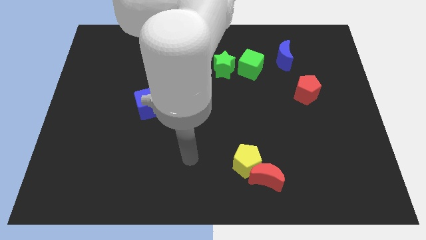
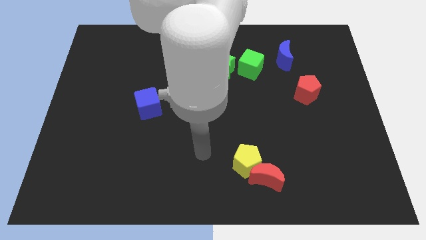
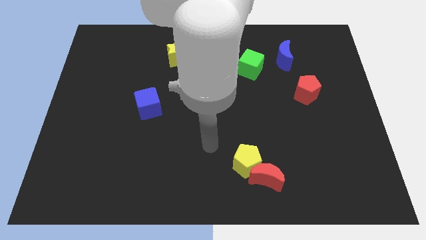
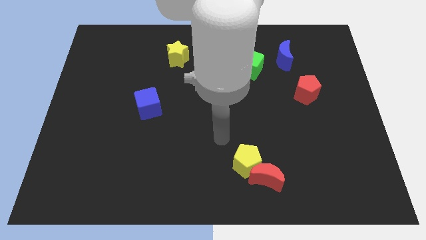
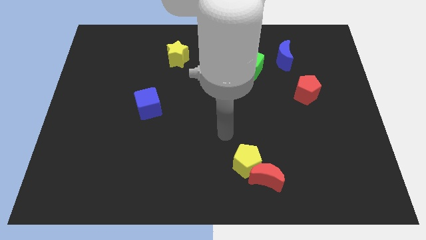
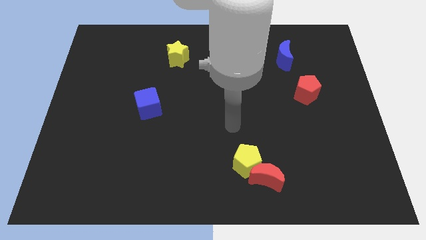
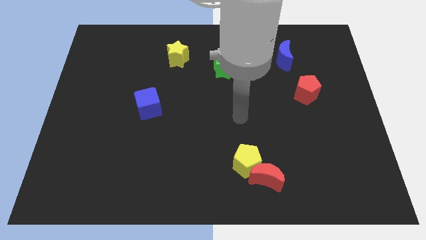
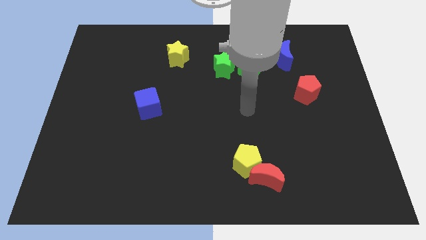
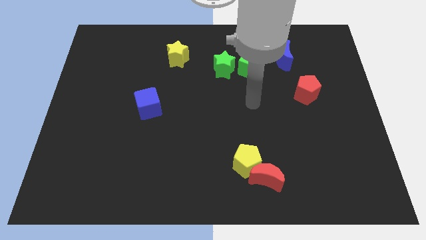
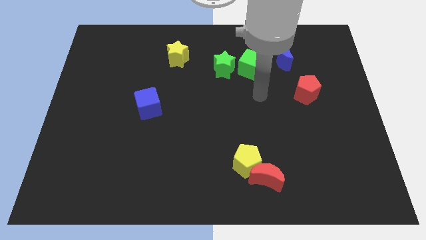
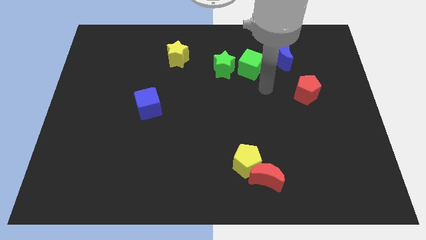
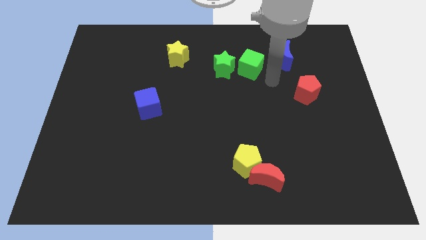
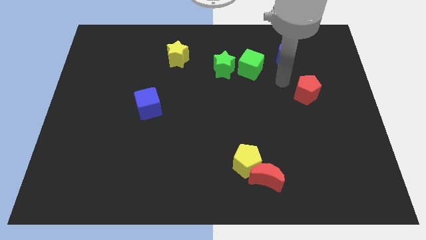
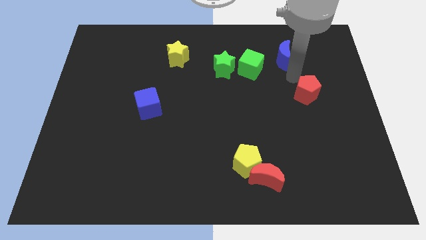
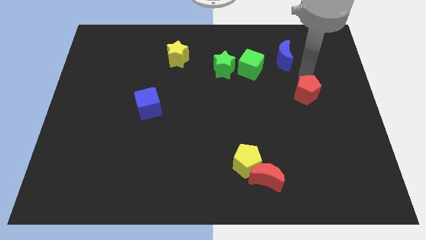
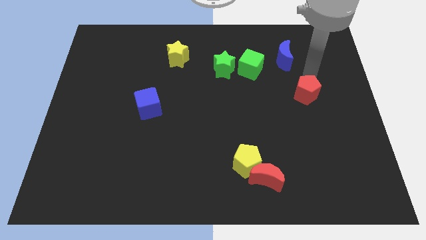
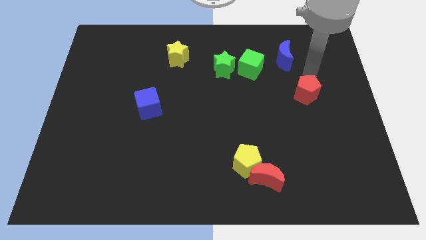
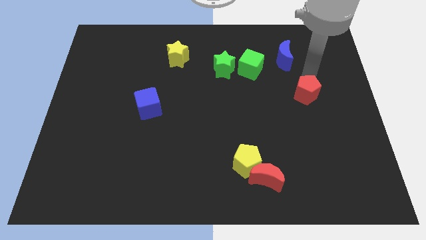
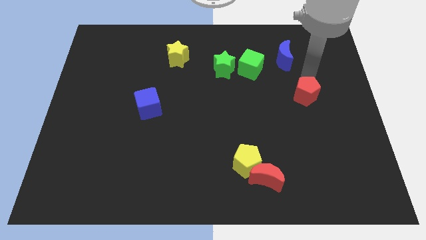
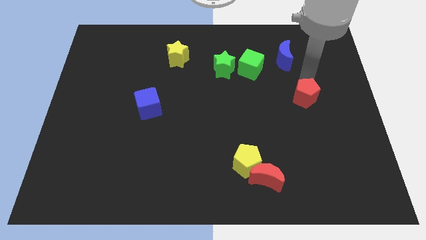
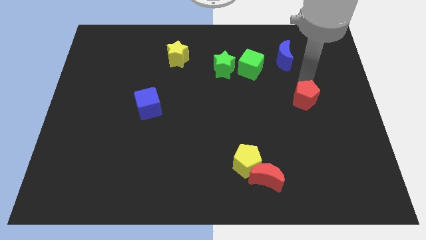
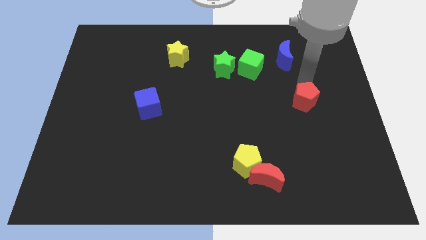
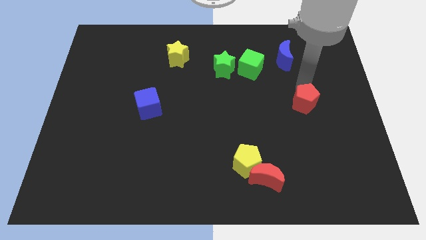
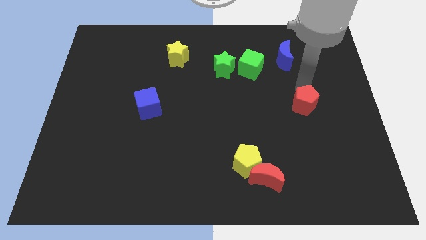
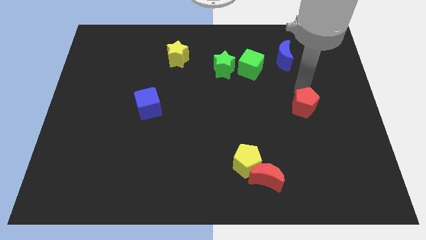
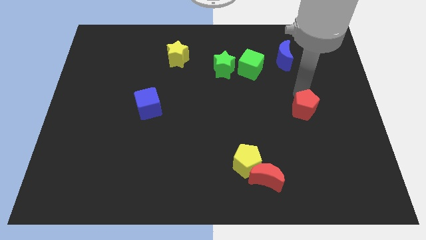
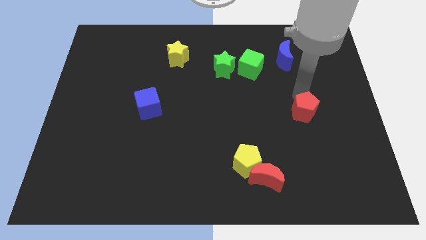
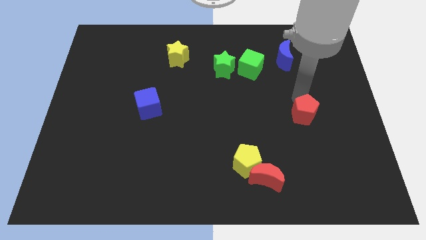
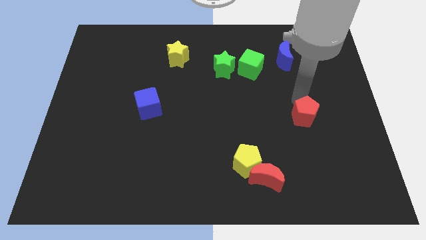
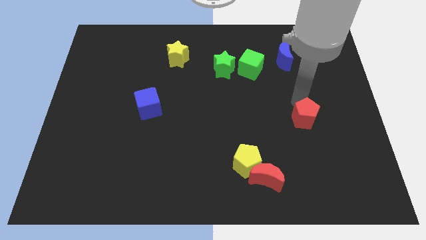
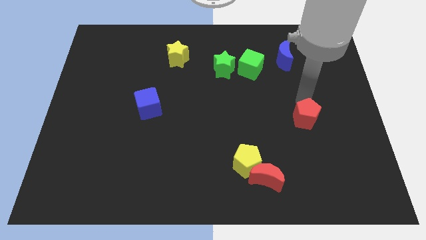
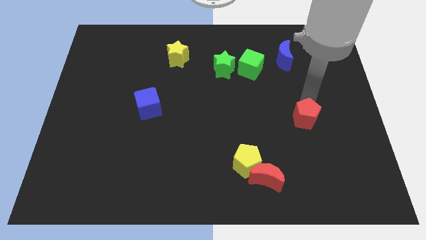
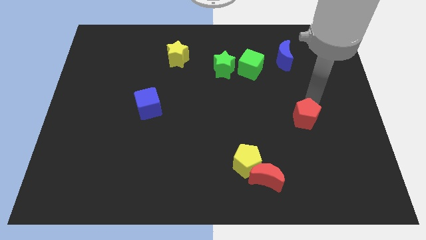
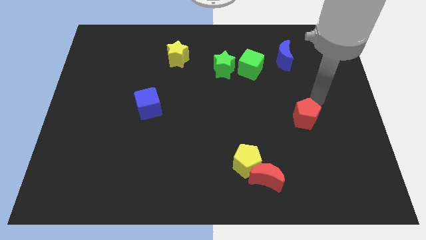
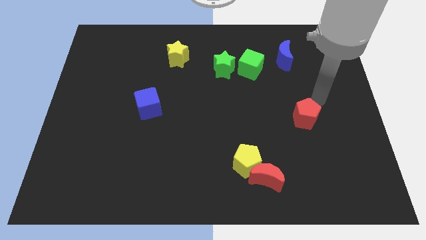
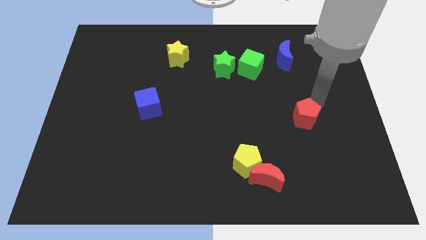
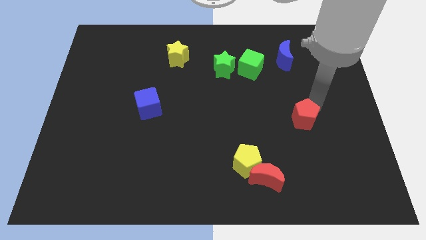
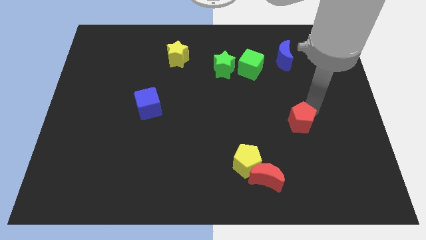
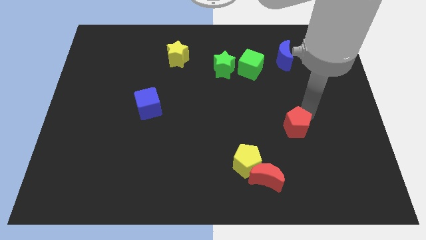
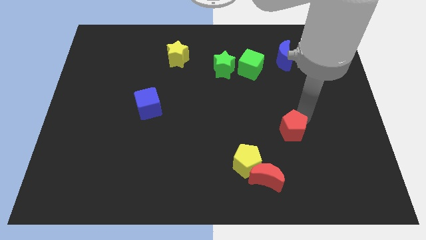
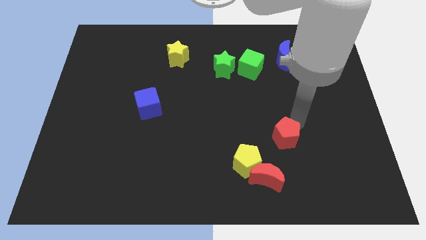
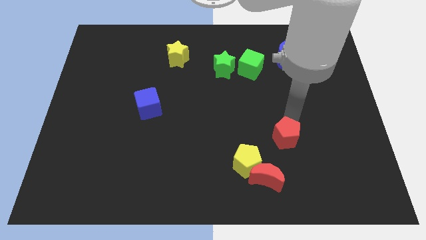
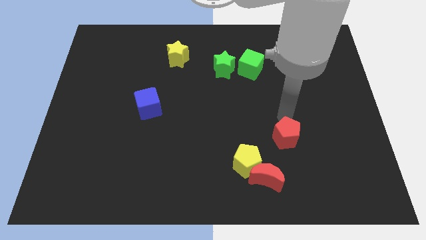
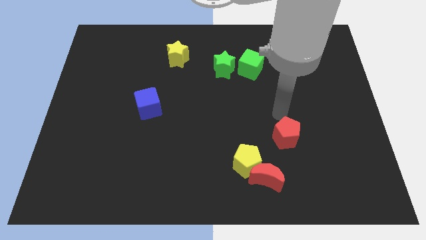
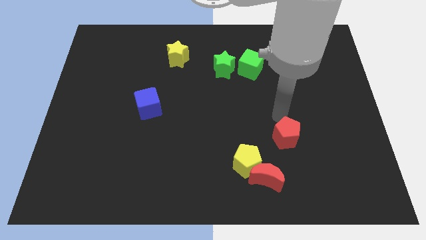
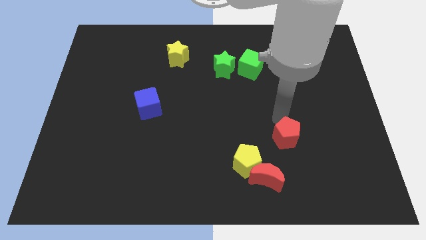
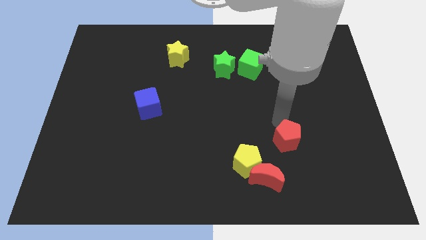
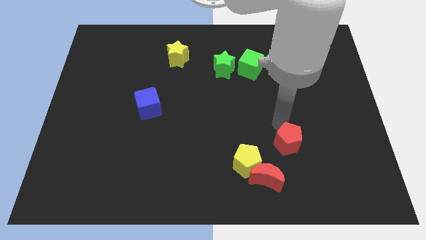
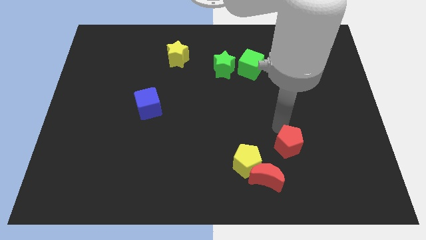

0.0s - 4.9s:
put the red pentagon just right of the yellow pentagon

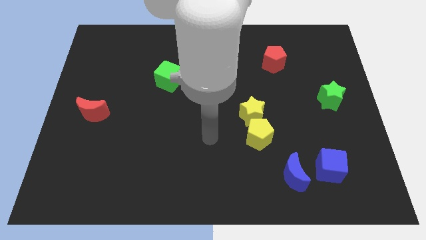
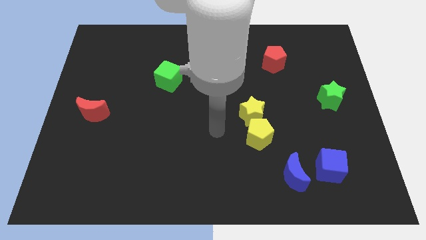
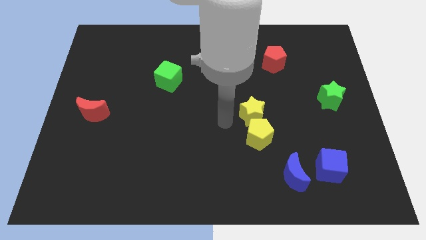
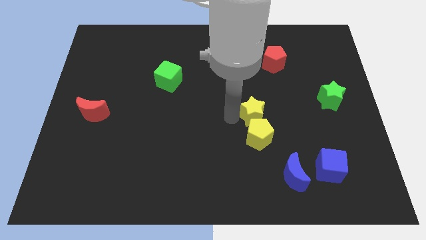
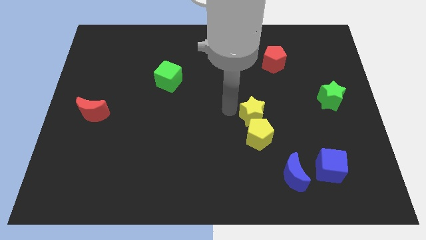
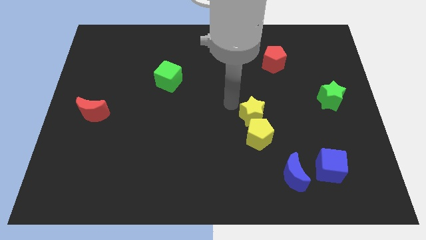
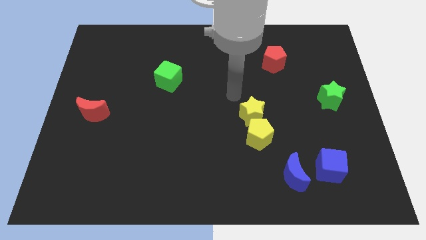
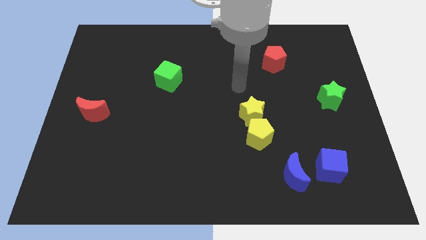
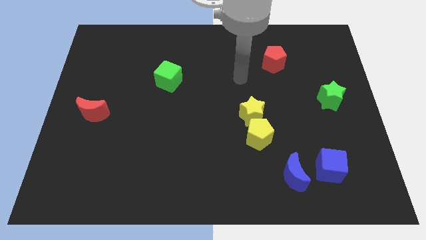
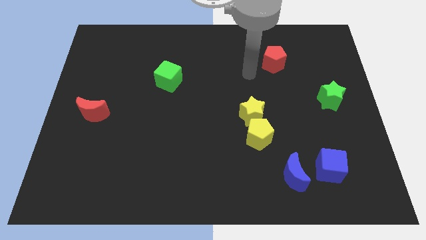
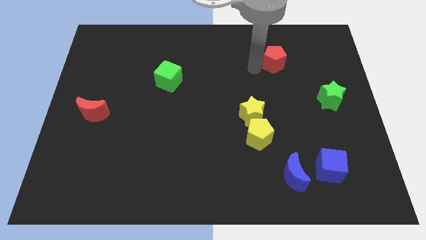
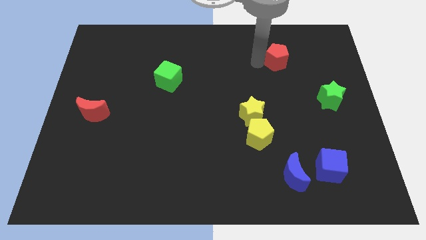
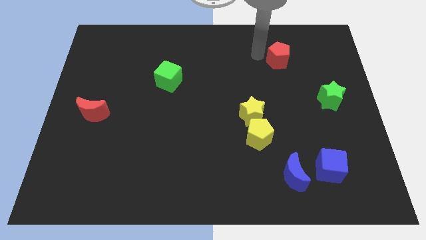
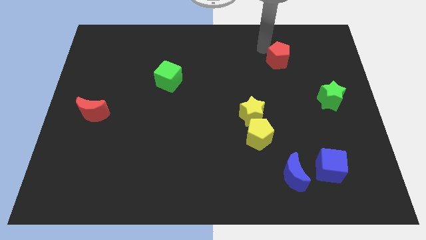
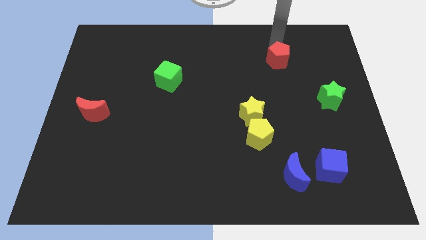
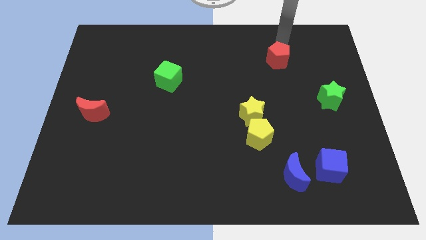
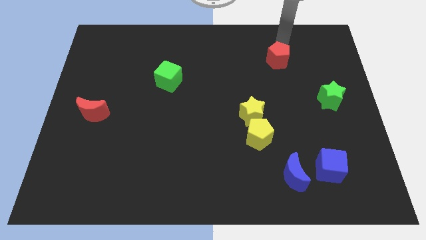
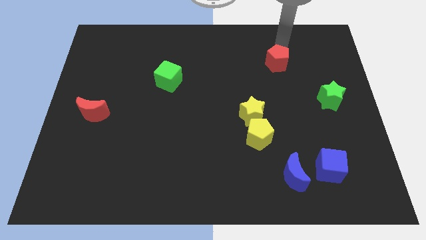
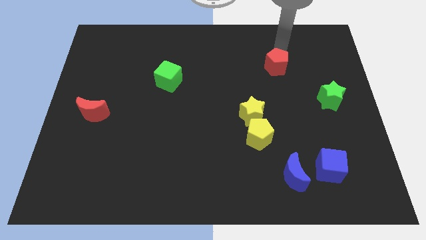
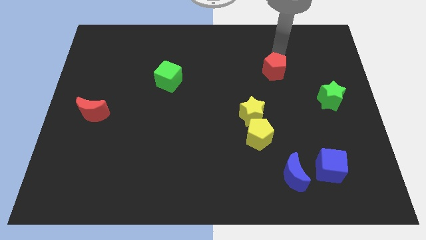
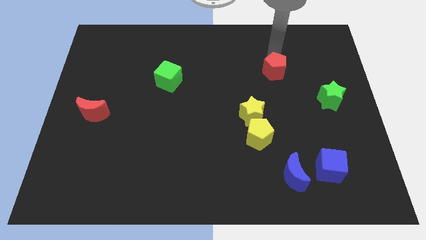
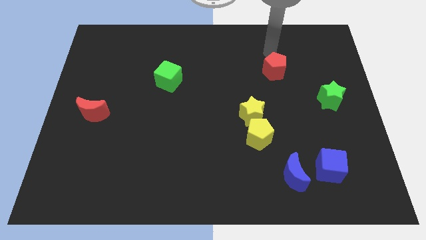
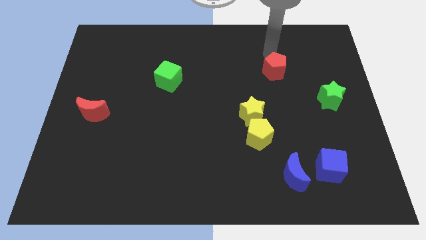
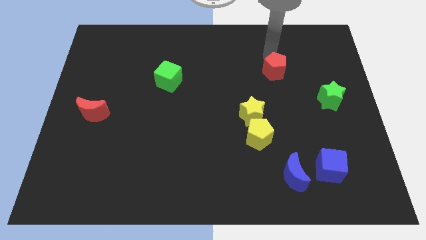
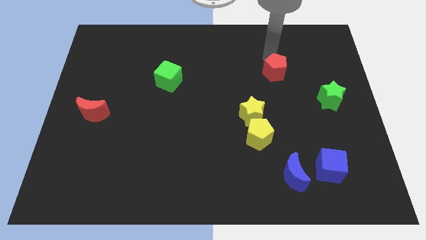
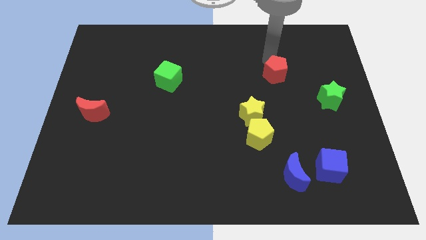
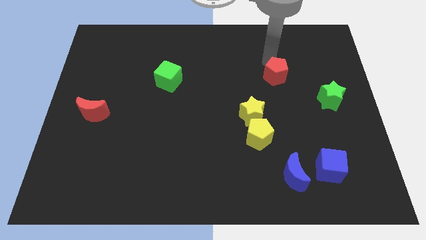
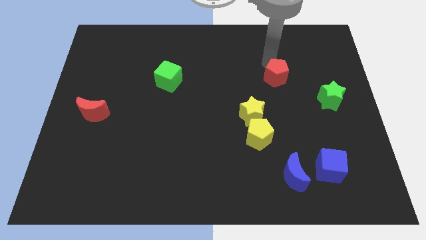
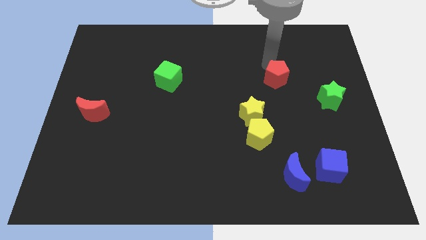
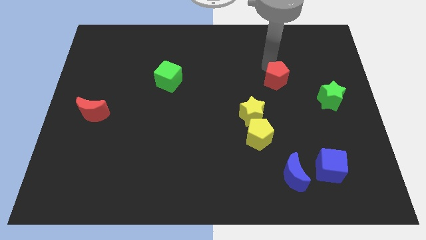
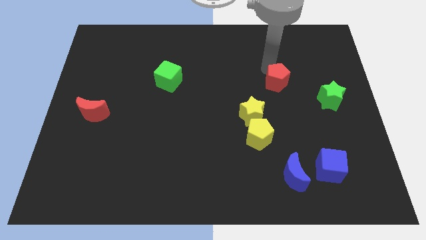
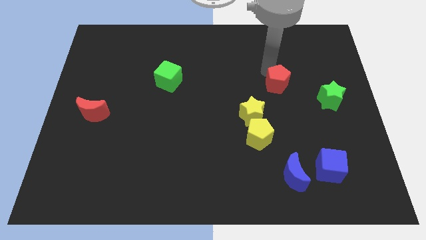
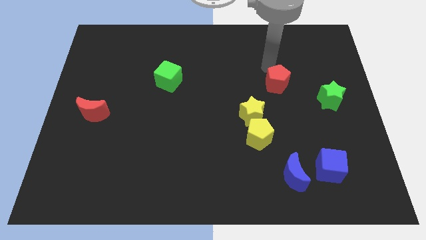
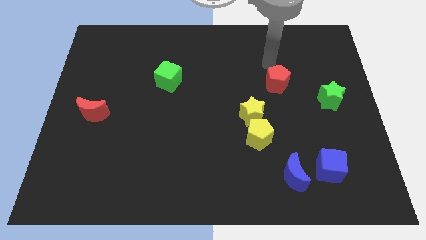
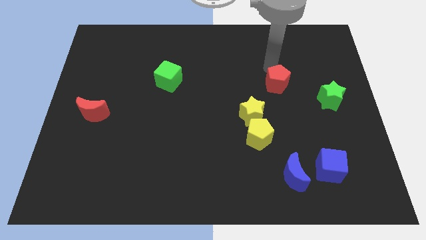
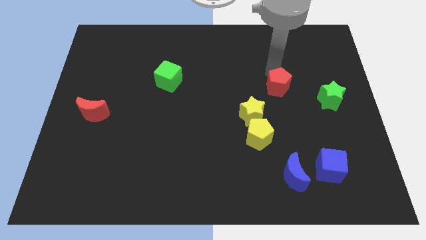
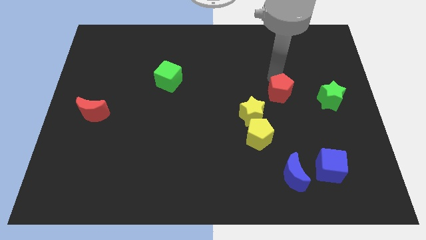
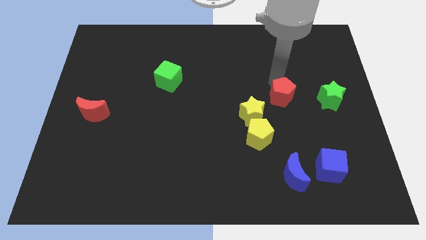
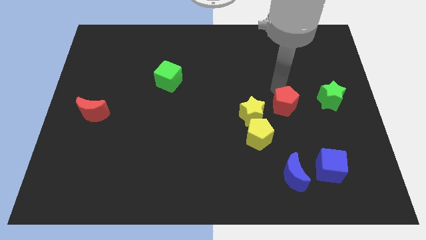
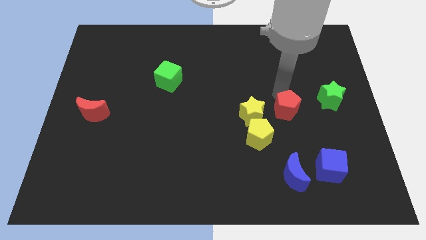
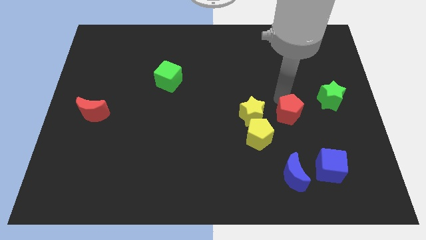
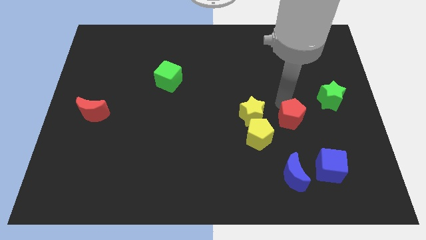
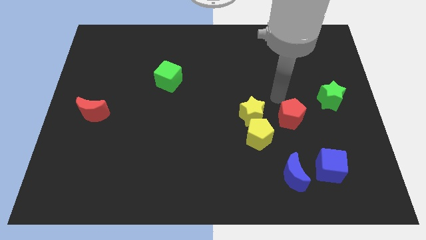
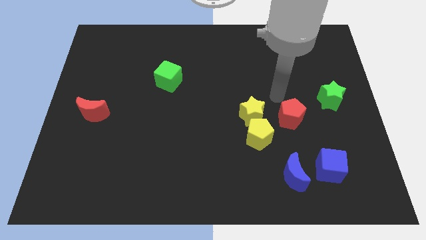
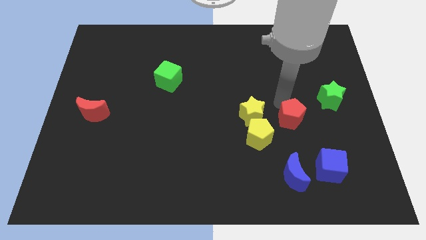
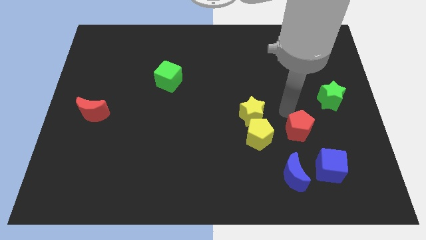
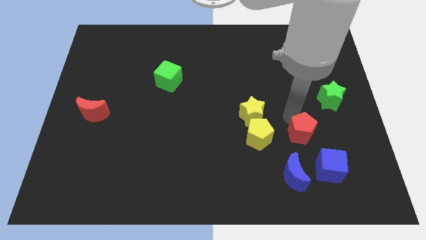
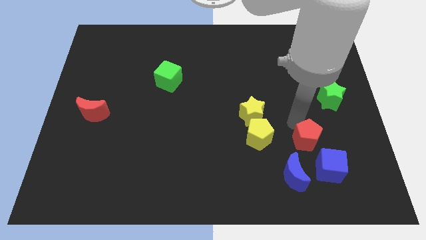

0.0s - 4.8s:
push the red pentagon to the top right side of the blue moon
